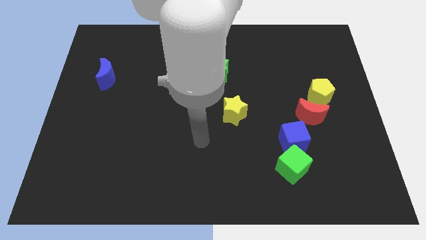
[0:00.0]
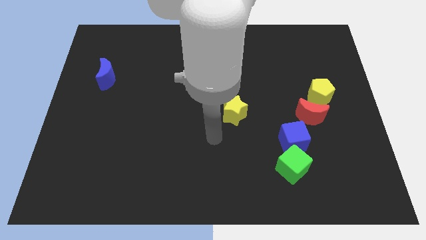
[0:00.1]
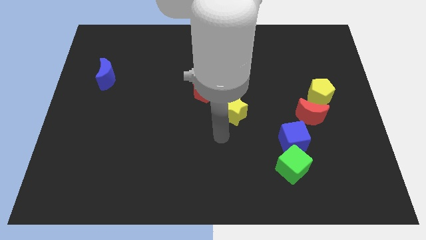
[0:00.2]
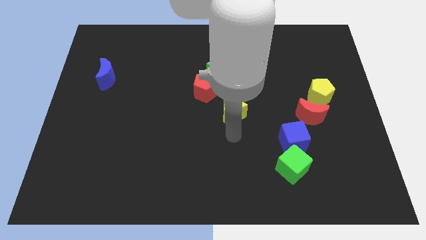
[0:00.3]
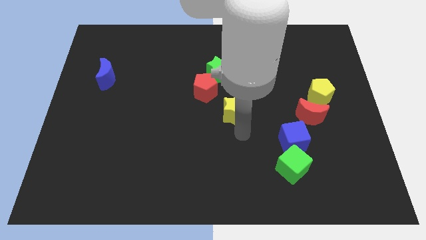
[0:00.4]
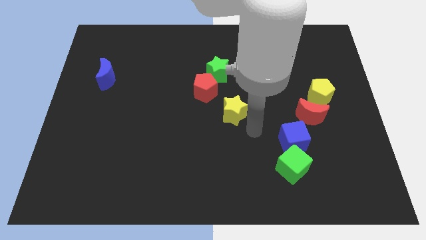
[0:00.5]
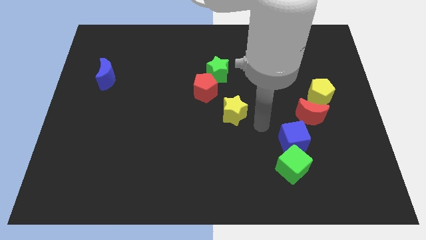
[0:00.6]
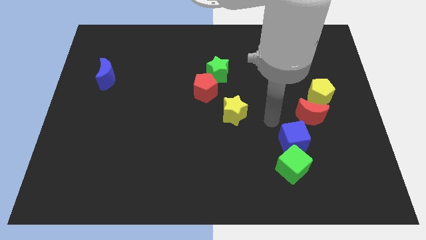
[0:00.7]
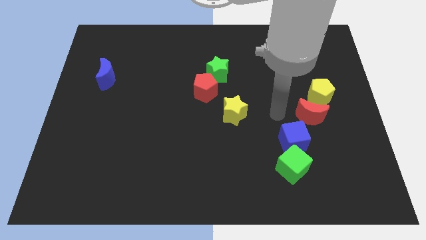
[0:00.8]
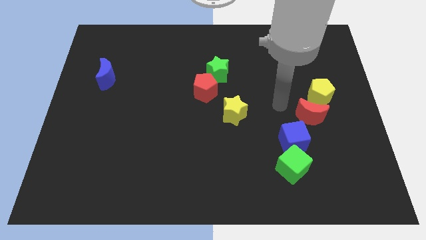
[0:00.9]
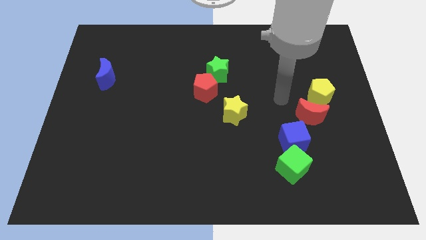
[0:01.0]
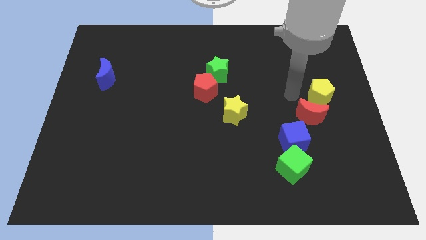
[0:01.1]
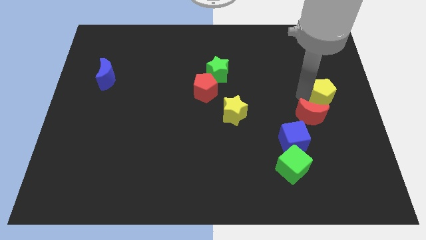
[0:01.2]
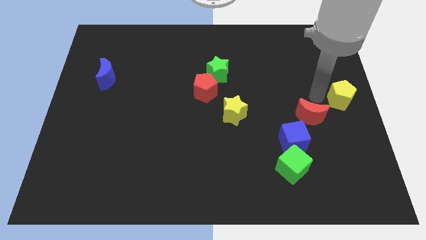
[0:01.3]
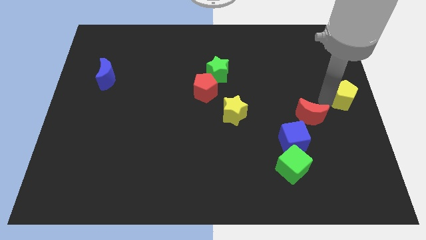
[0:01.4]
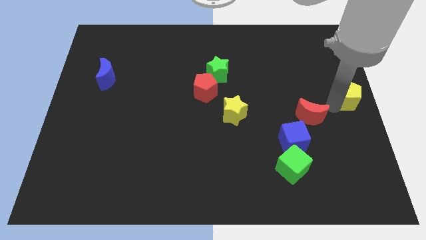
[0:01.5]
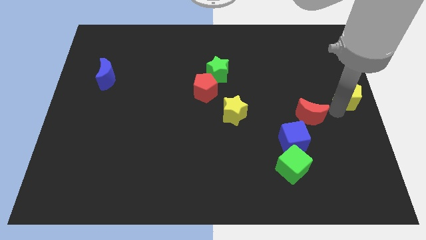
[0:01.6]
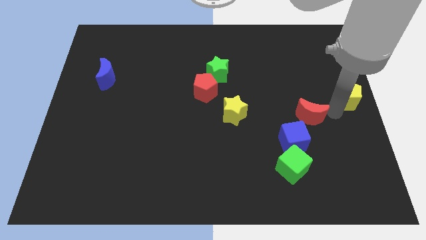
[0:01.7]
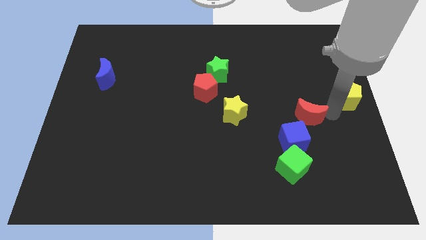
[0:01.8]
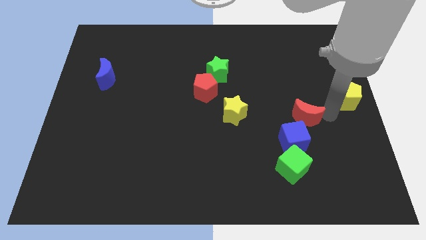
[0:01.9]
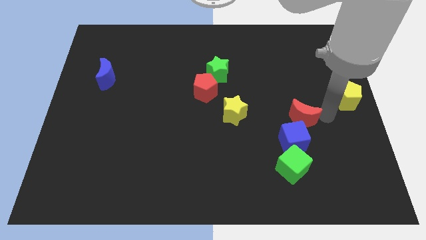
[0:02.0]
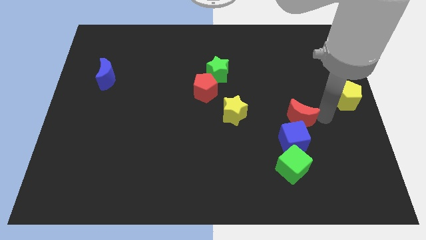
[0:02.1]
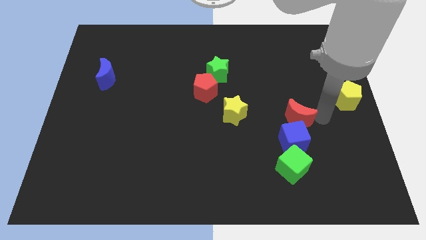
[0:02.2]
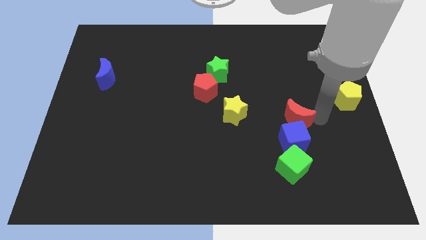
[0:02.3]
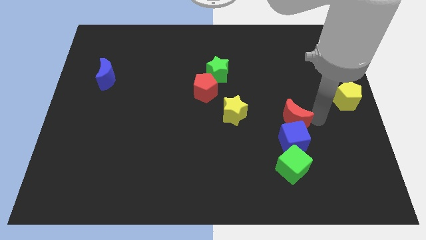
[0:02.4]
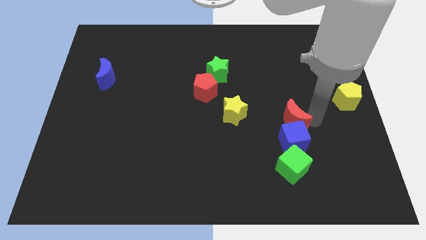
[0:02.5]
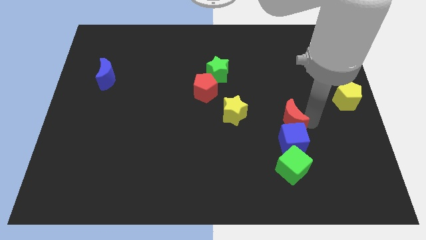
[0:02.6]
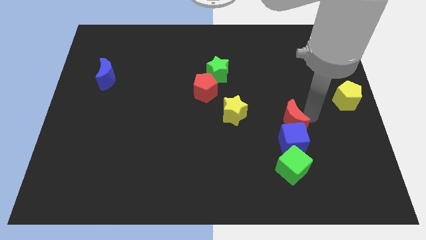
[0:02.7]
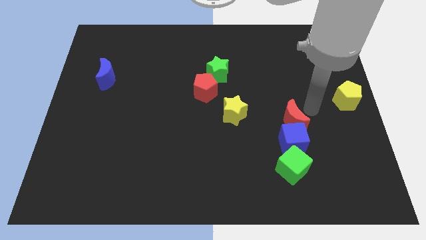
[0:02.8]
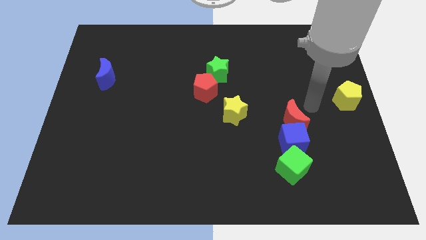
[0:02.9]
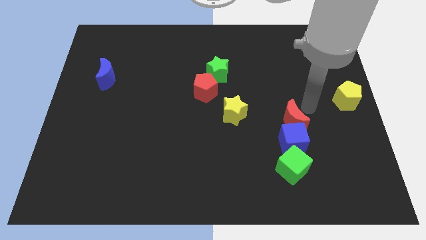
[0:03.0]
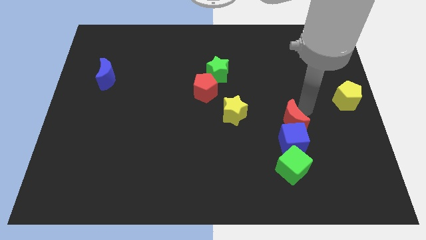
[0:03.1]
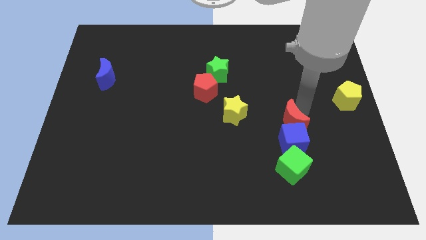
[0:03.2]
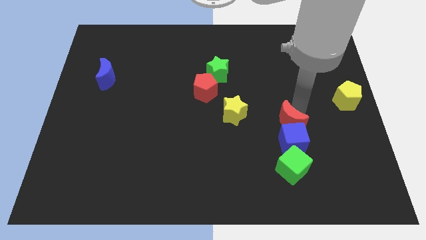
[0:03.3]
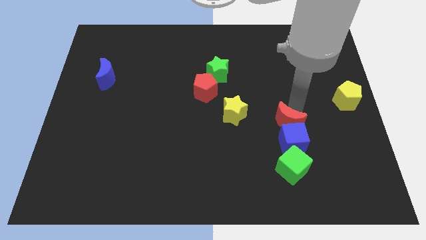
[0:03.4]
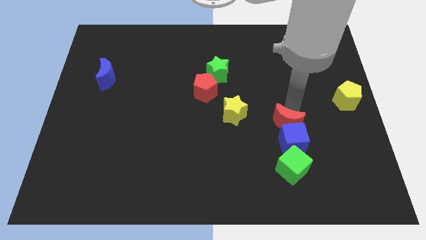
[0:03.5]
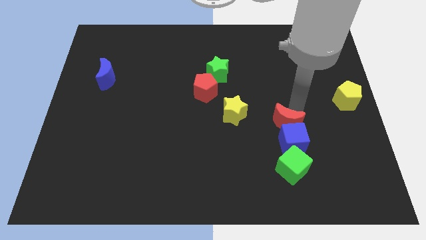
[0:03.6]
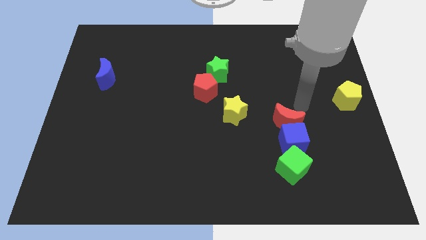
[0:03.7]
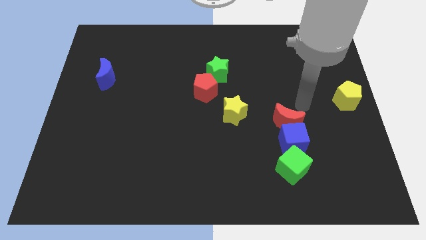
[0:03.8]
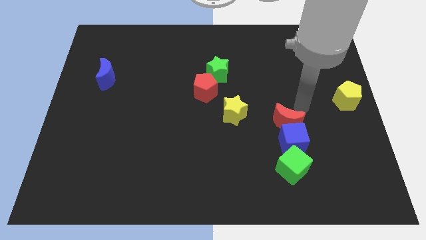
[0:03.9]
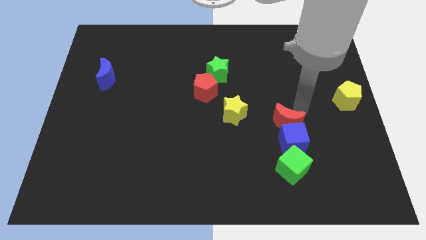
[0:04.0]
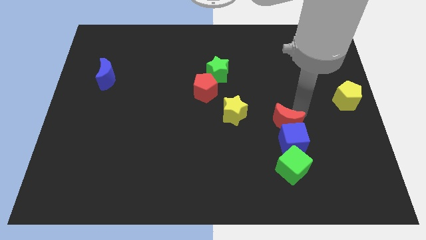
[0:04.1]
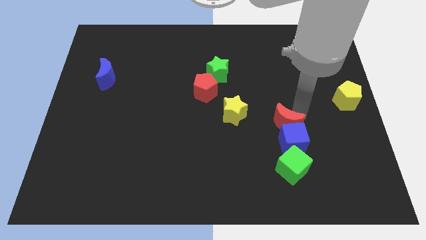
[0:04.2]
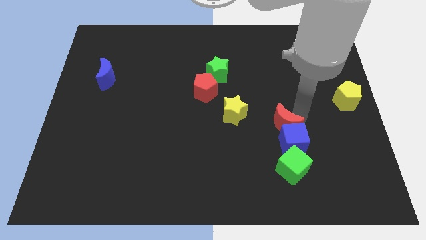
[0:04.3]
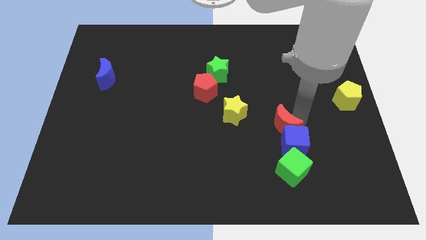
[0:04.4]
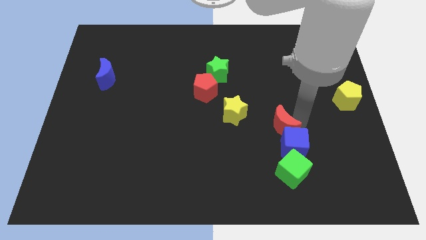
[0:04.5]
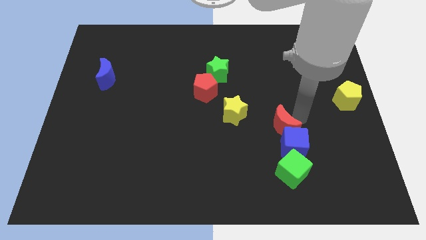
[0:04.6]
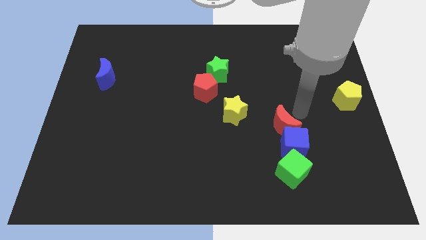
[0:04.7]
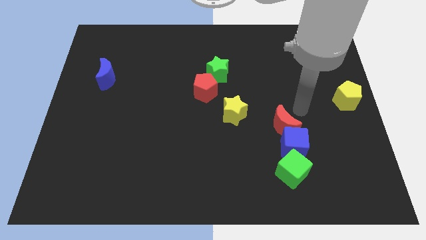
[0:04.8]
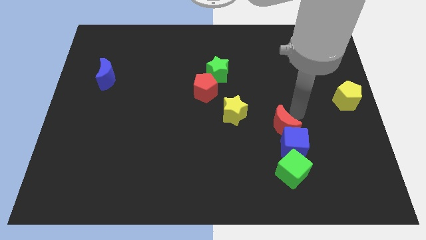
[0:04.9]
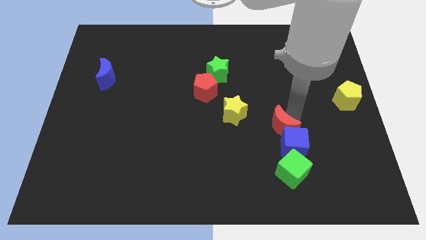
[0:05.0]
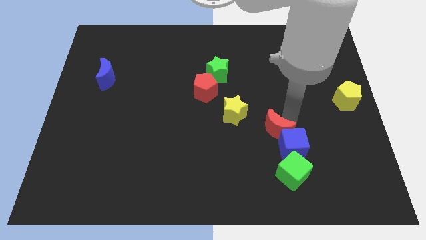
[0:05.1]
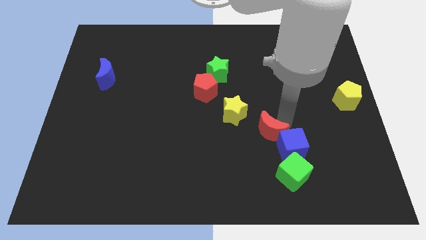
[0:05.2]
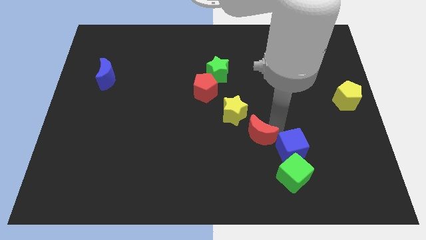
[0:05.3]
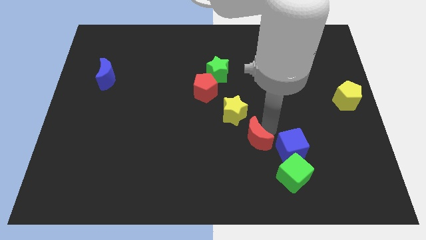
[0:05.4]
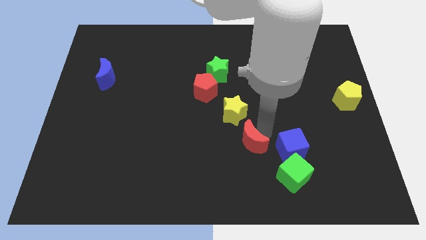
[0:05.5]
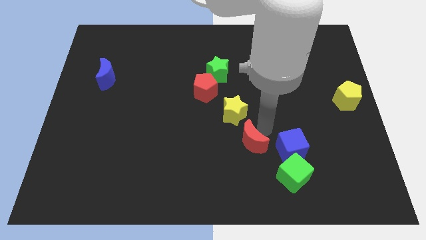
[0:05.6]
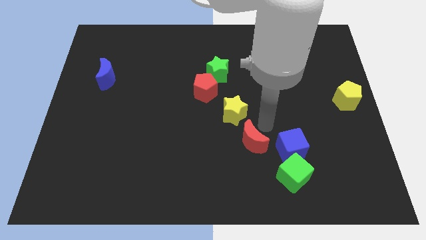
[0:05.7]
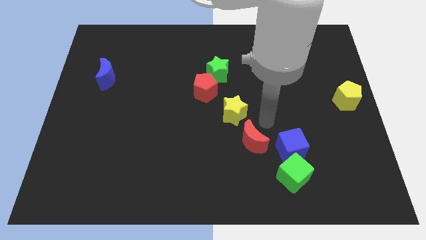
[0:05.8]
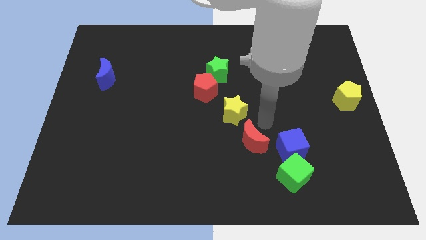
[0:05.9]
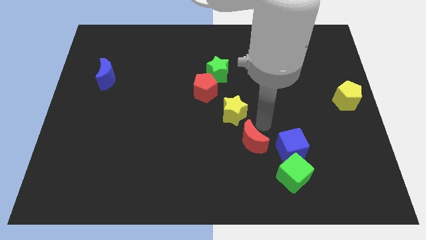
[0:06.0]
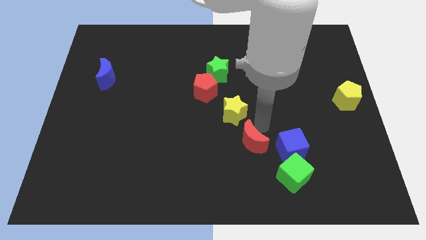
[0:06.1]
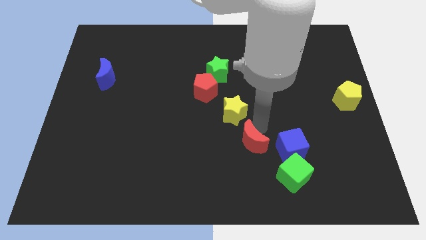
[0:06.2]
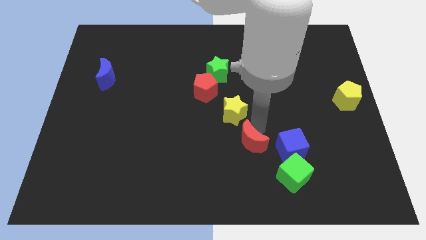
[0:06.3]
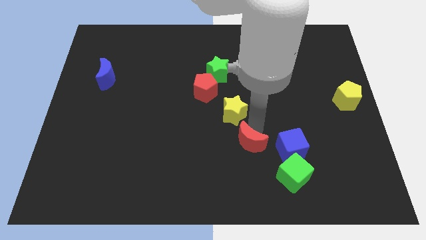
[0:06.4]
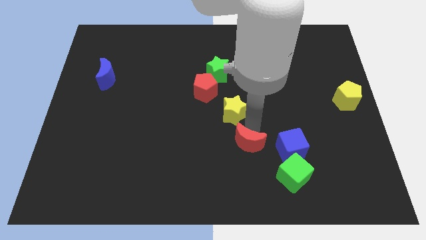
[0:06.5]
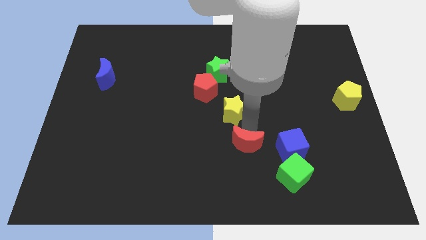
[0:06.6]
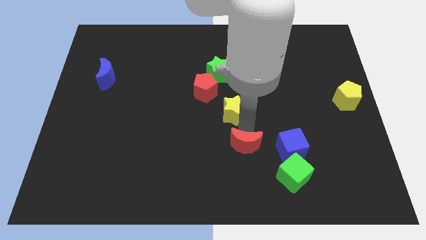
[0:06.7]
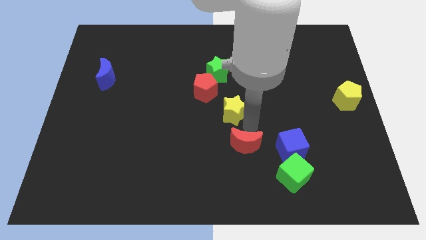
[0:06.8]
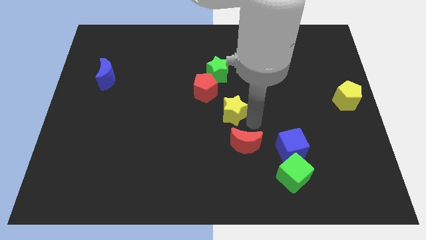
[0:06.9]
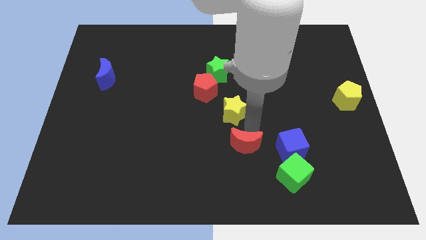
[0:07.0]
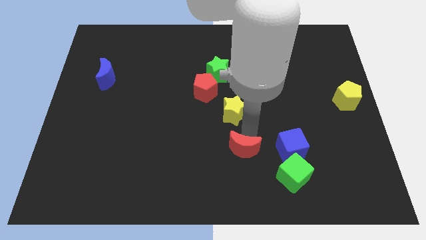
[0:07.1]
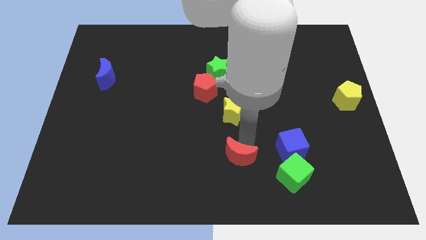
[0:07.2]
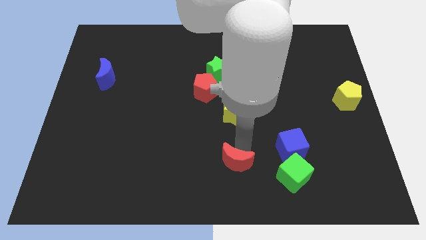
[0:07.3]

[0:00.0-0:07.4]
move the red moon to the bottom
